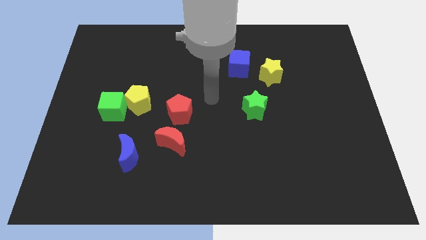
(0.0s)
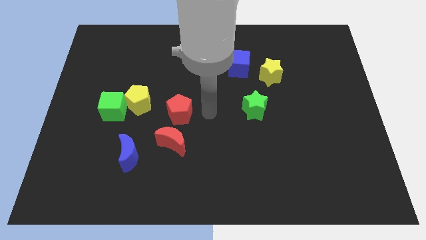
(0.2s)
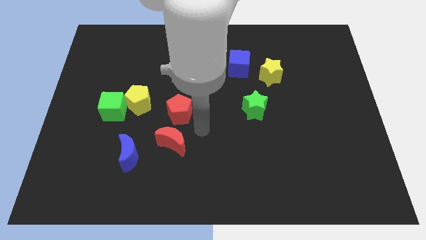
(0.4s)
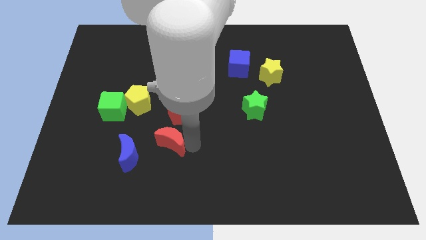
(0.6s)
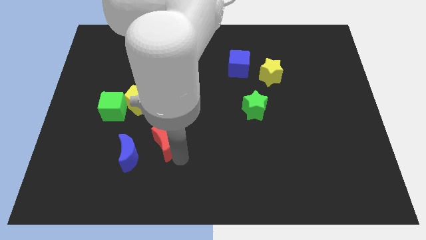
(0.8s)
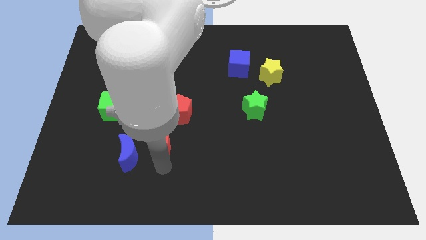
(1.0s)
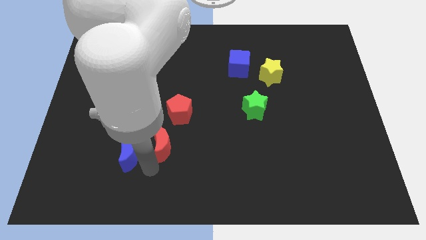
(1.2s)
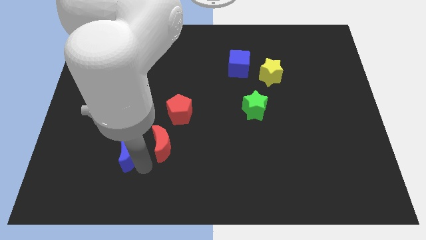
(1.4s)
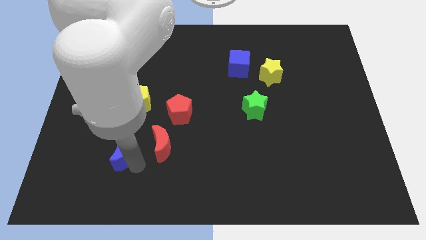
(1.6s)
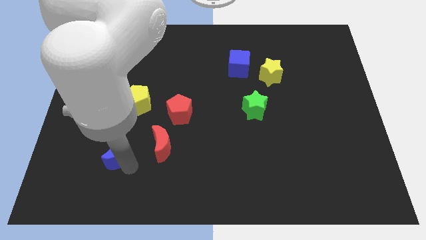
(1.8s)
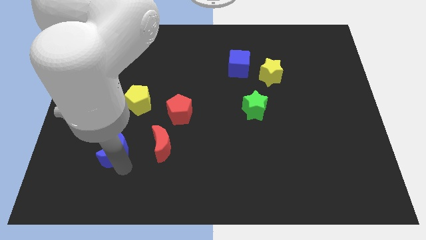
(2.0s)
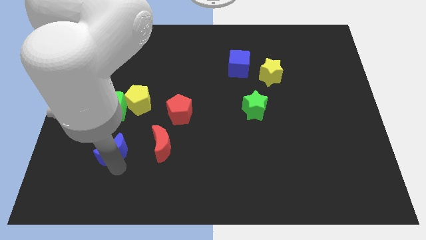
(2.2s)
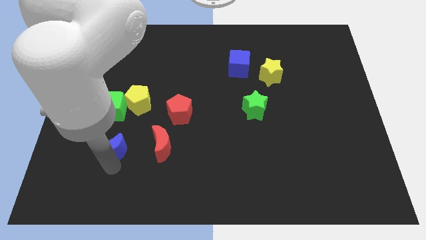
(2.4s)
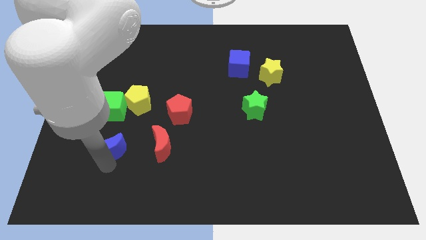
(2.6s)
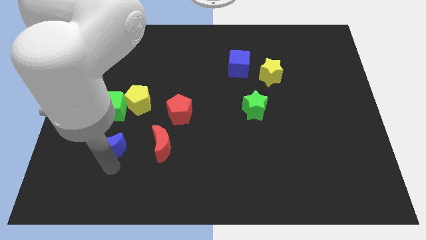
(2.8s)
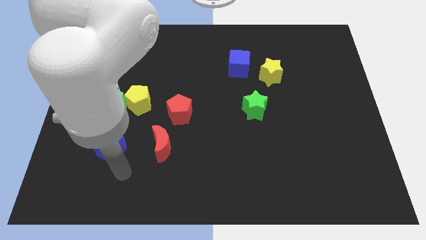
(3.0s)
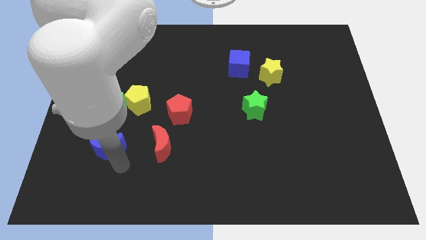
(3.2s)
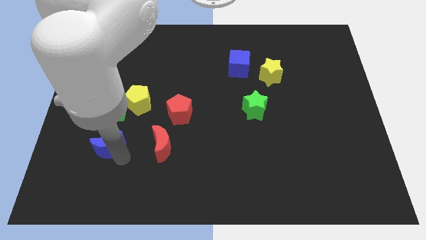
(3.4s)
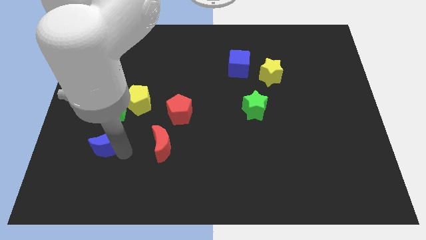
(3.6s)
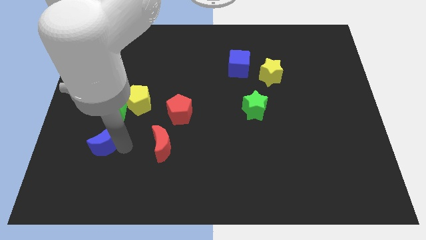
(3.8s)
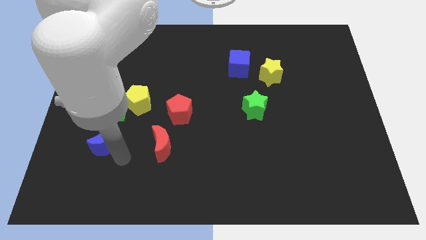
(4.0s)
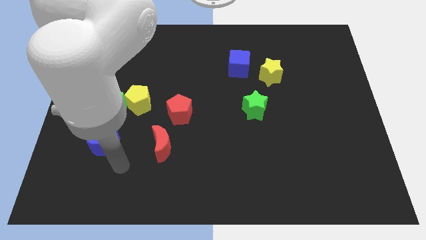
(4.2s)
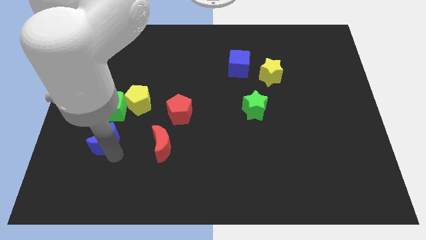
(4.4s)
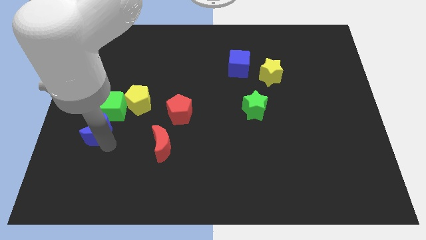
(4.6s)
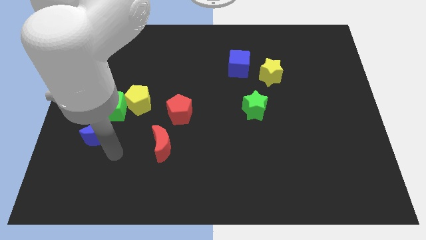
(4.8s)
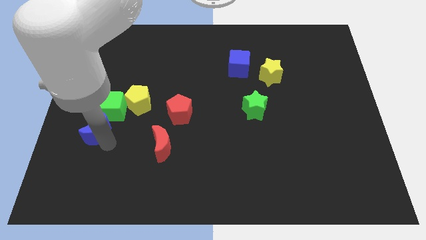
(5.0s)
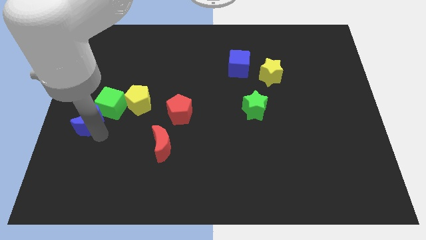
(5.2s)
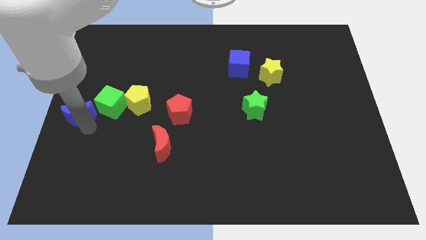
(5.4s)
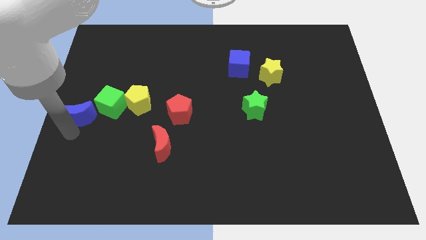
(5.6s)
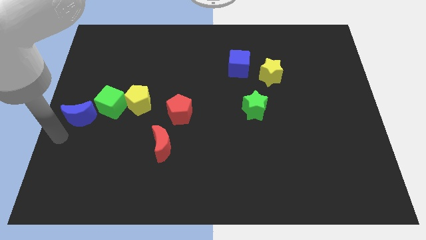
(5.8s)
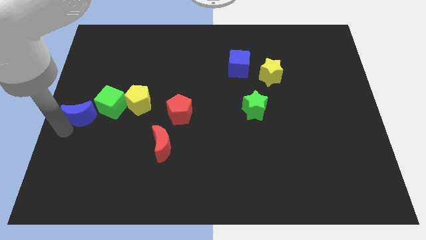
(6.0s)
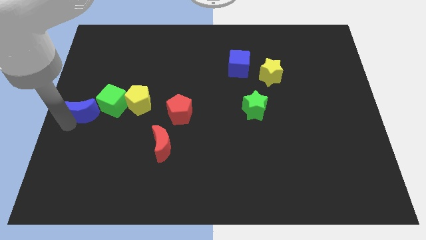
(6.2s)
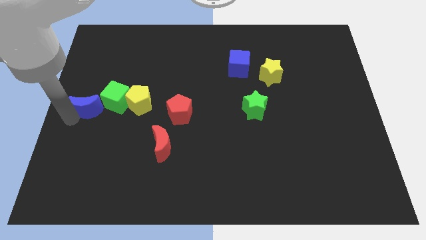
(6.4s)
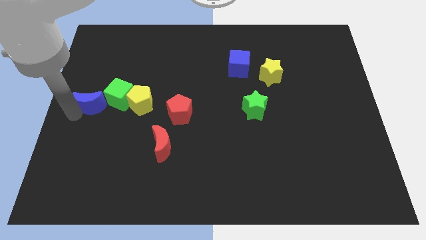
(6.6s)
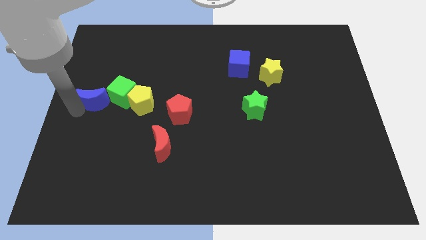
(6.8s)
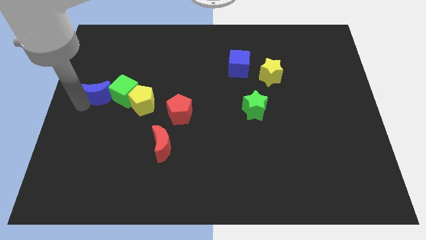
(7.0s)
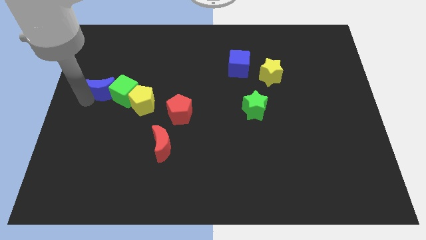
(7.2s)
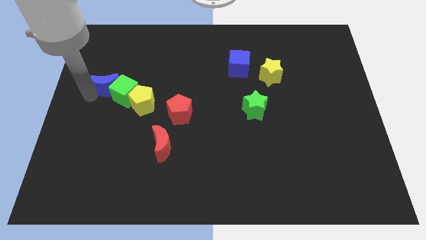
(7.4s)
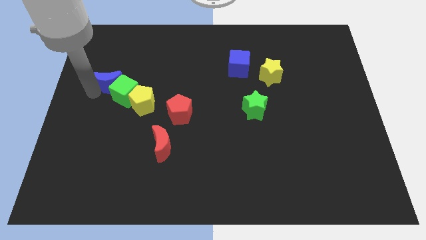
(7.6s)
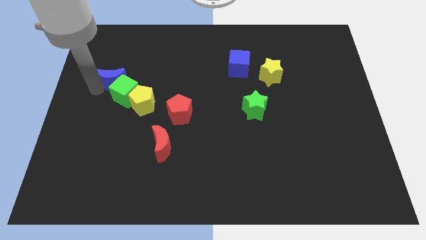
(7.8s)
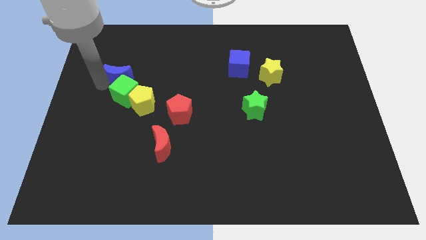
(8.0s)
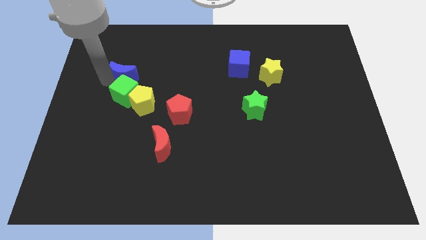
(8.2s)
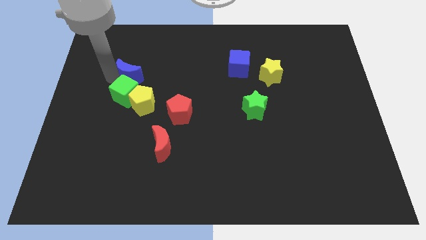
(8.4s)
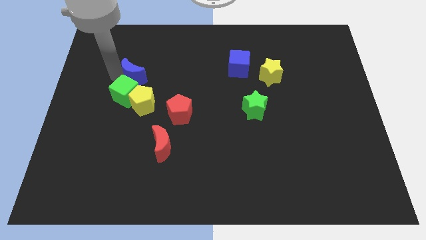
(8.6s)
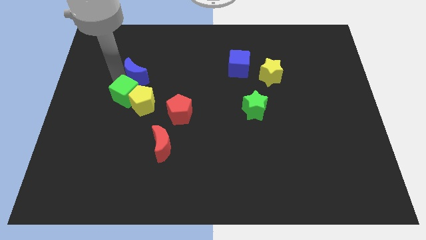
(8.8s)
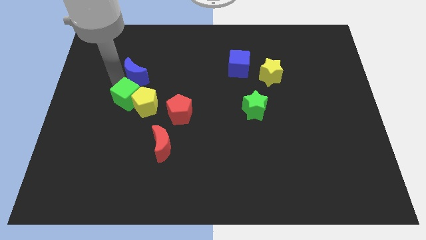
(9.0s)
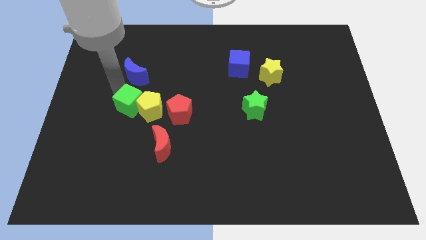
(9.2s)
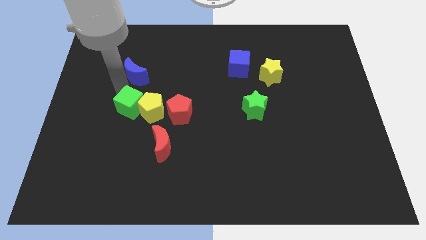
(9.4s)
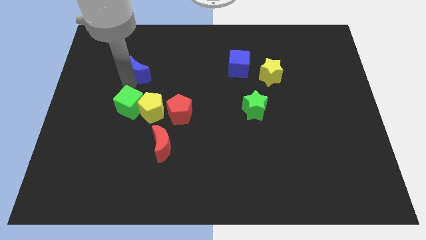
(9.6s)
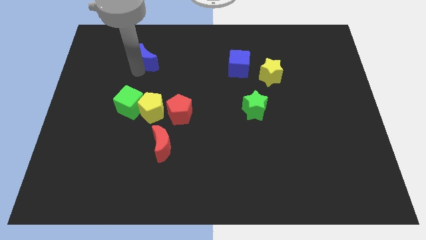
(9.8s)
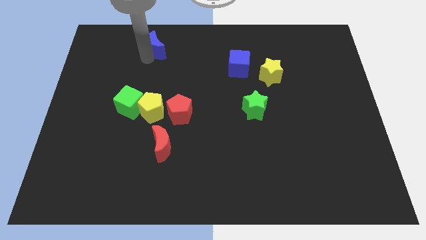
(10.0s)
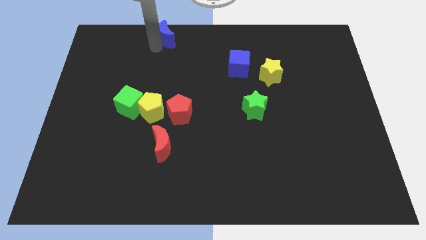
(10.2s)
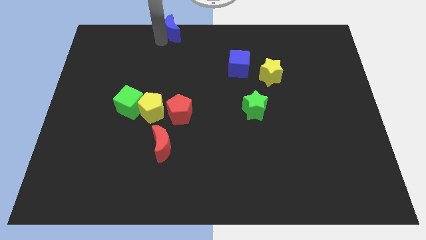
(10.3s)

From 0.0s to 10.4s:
slide the blue moon to the top side

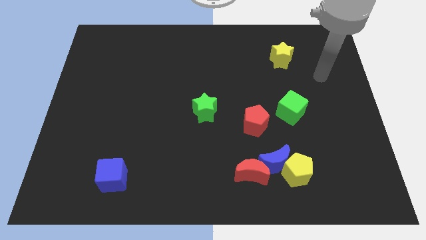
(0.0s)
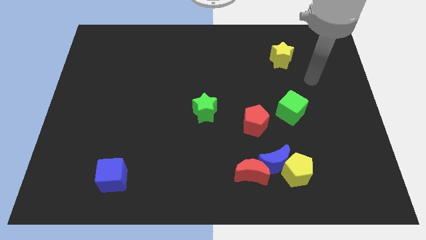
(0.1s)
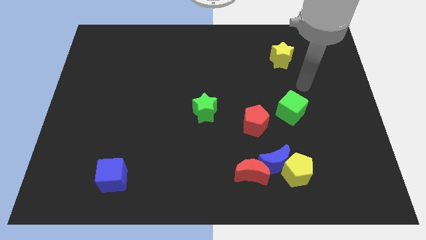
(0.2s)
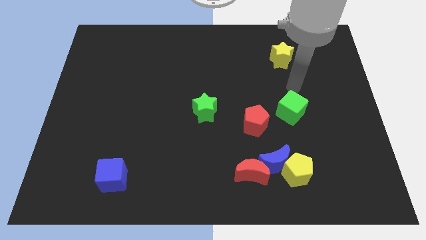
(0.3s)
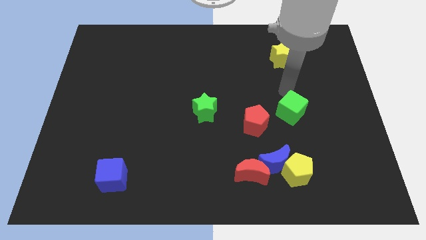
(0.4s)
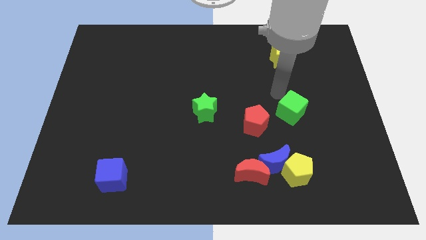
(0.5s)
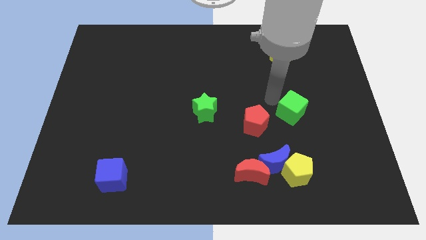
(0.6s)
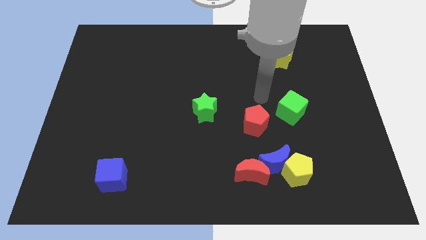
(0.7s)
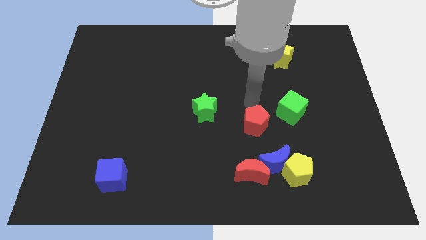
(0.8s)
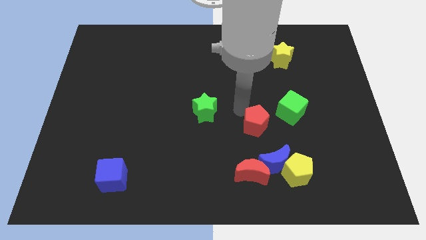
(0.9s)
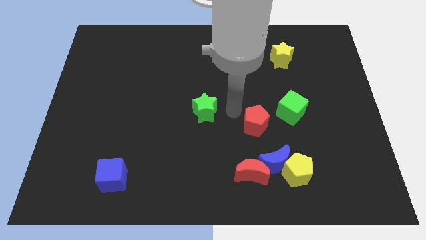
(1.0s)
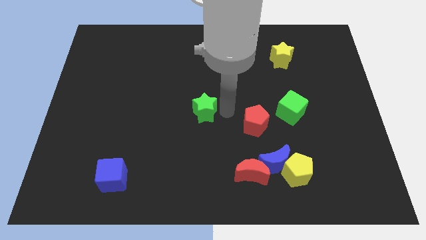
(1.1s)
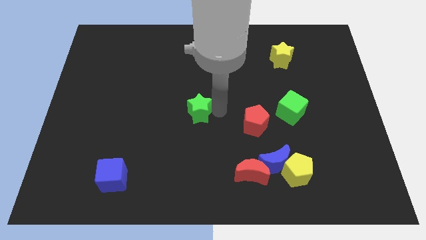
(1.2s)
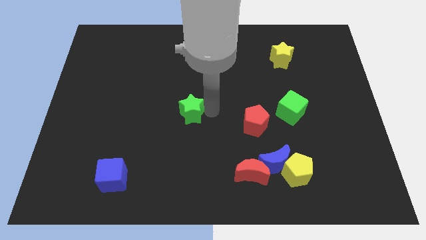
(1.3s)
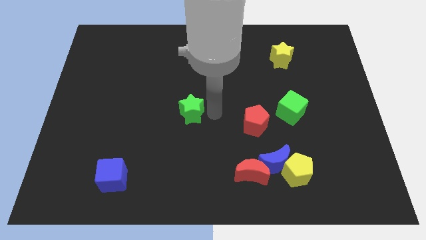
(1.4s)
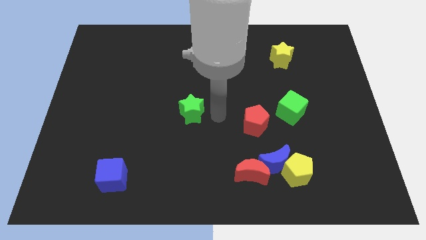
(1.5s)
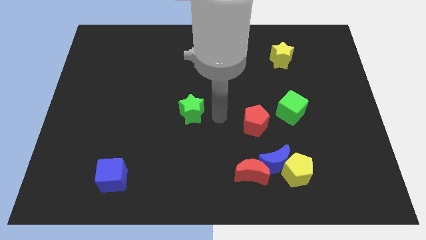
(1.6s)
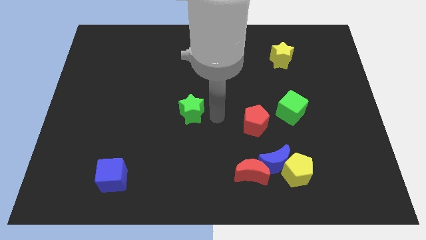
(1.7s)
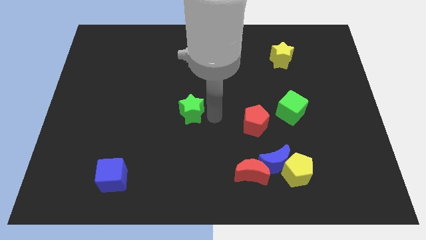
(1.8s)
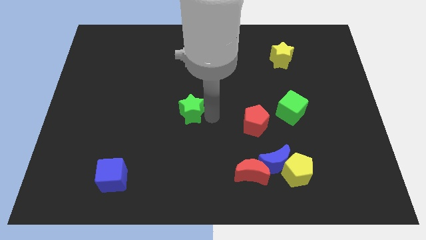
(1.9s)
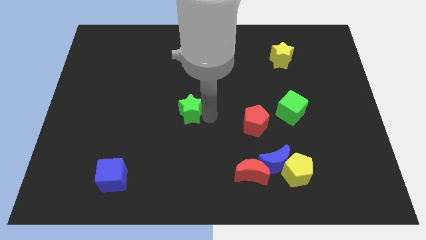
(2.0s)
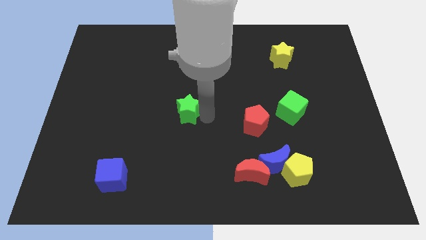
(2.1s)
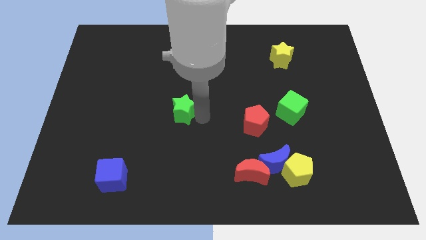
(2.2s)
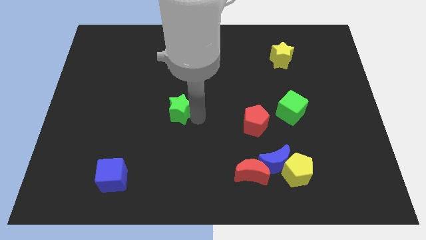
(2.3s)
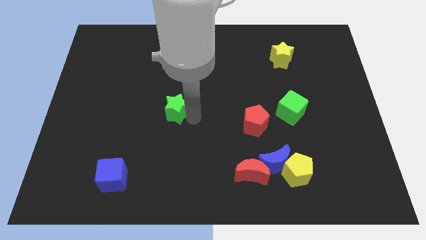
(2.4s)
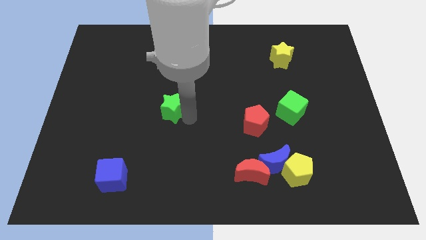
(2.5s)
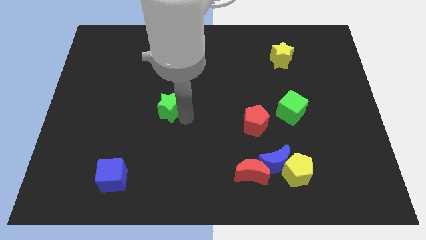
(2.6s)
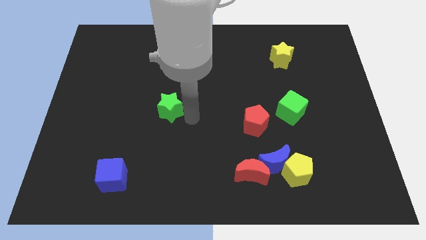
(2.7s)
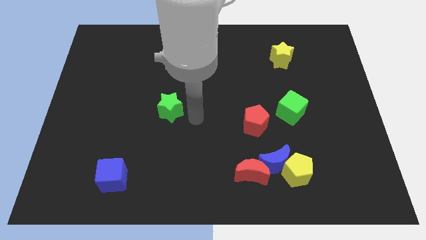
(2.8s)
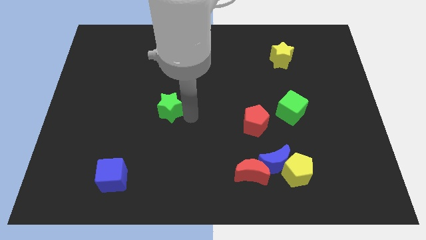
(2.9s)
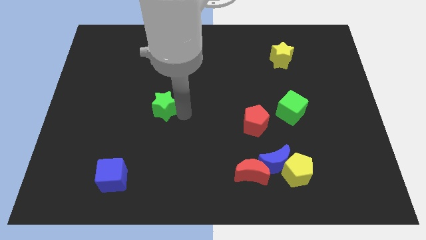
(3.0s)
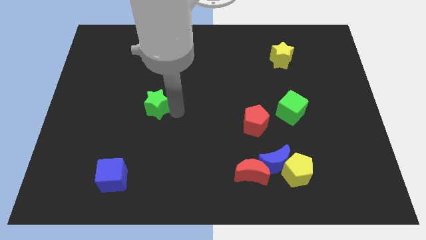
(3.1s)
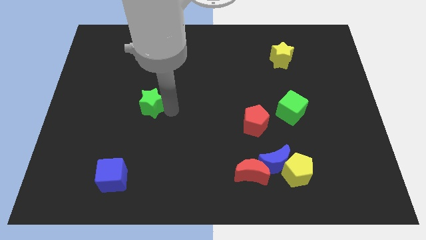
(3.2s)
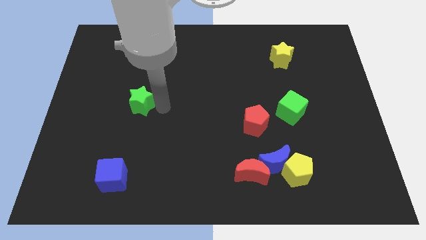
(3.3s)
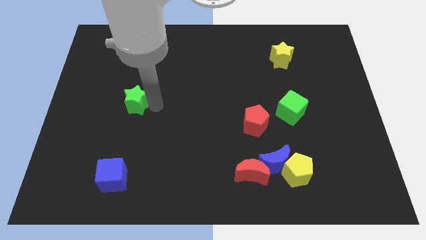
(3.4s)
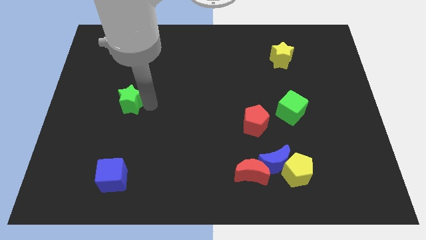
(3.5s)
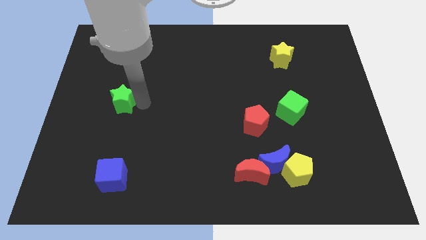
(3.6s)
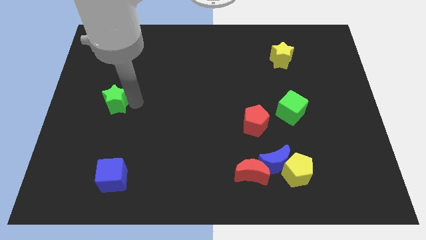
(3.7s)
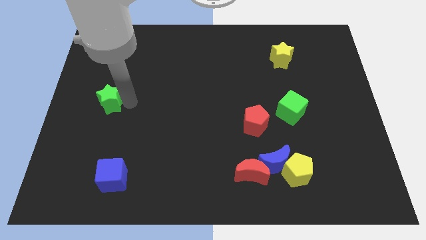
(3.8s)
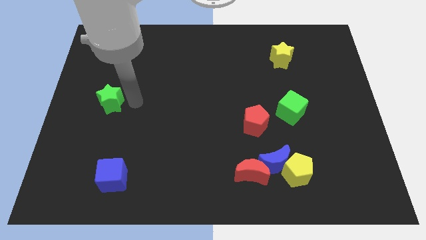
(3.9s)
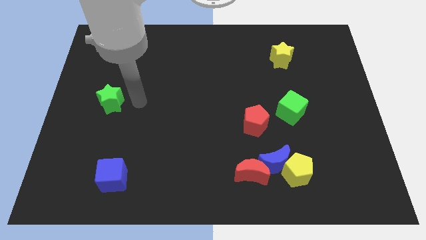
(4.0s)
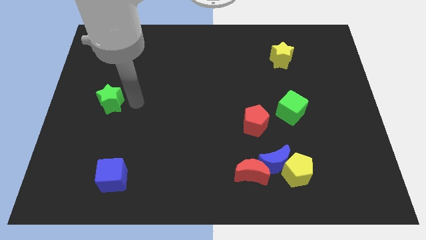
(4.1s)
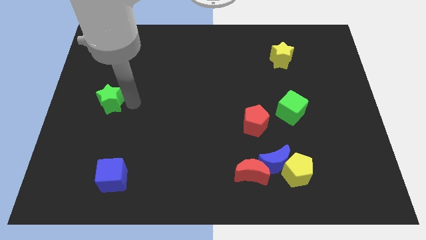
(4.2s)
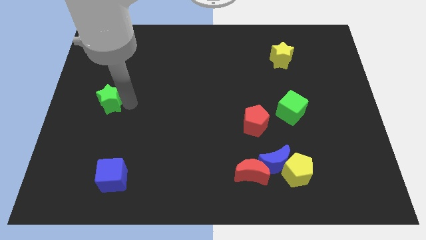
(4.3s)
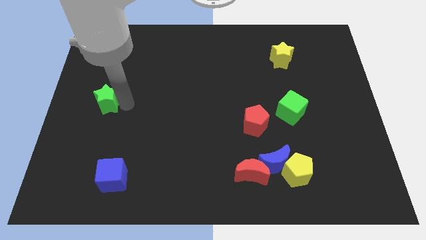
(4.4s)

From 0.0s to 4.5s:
slide the green star to the left side of the board
